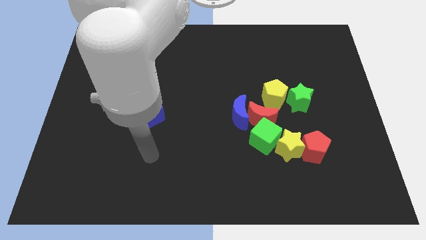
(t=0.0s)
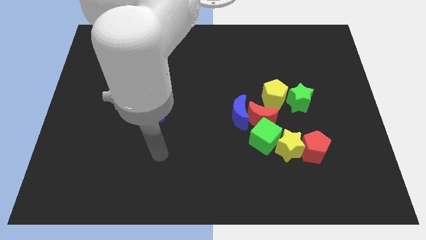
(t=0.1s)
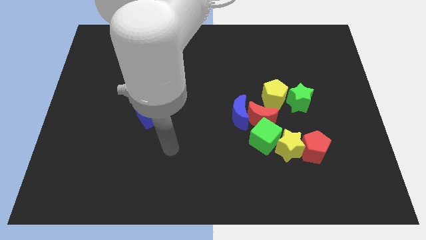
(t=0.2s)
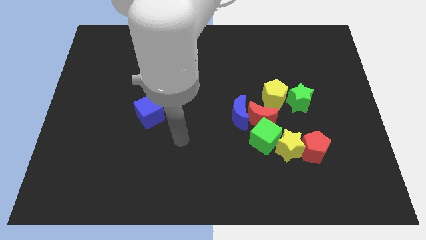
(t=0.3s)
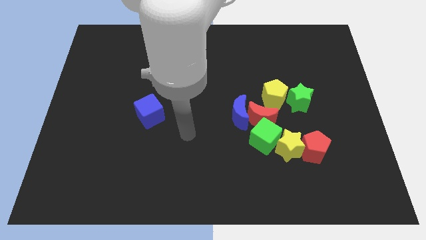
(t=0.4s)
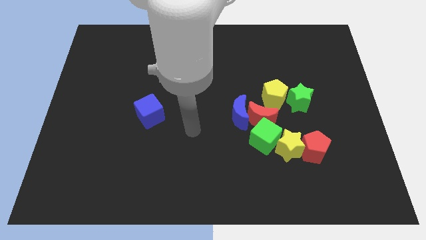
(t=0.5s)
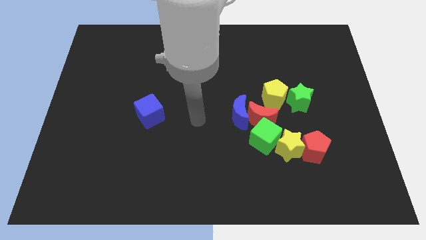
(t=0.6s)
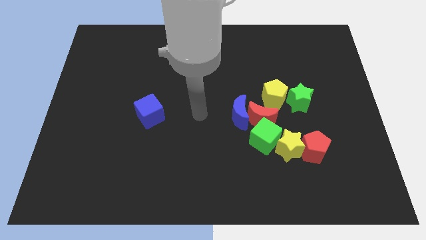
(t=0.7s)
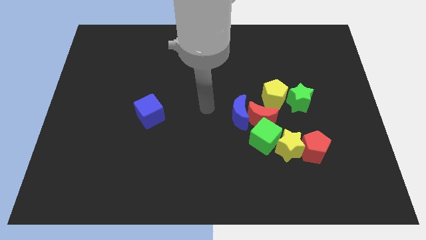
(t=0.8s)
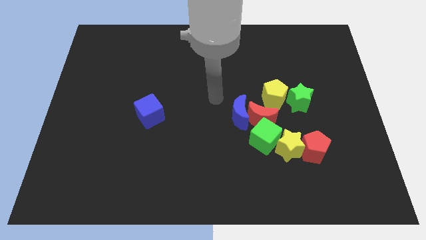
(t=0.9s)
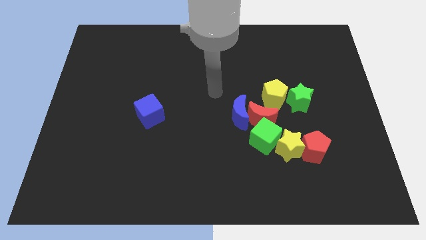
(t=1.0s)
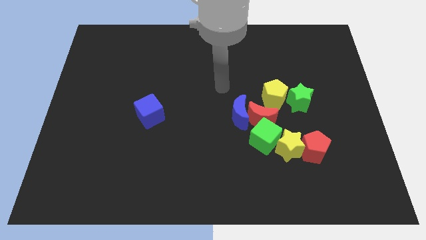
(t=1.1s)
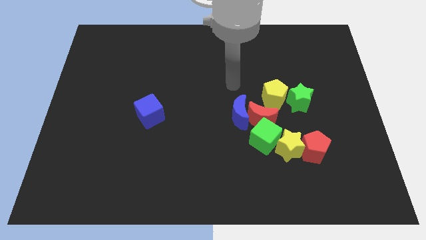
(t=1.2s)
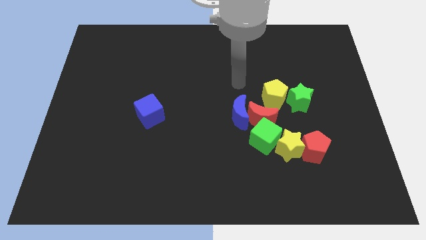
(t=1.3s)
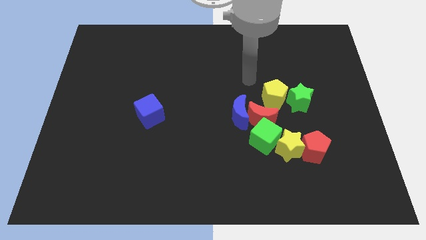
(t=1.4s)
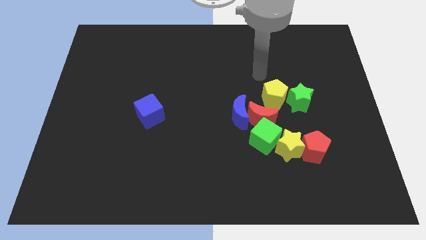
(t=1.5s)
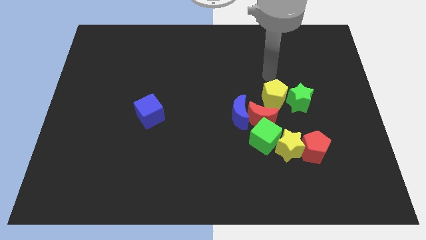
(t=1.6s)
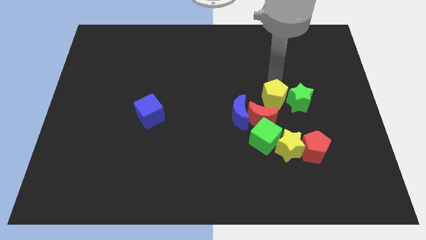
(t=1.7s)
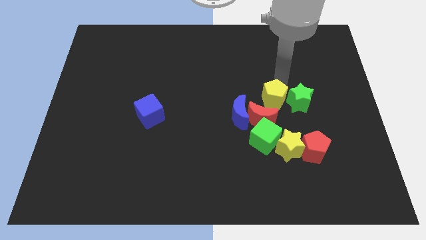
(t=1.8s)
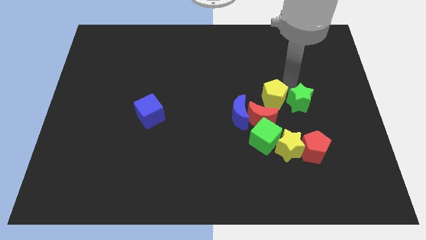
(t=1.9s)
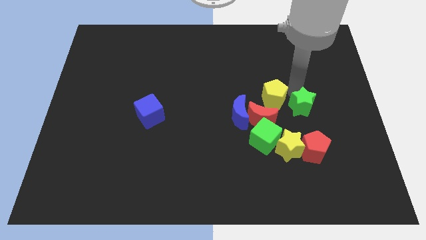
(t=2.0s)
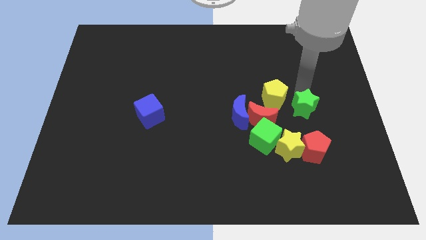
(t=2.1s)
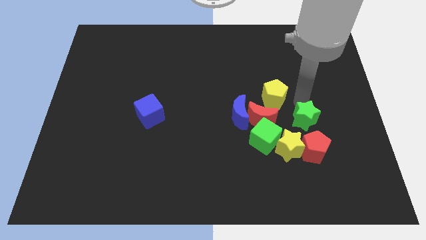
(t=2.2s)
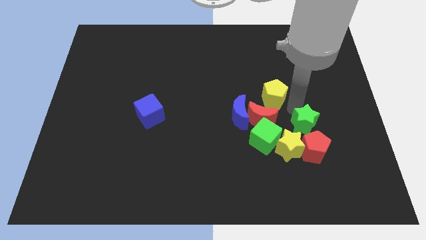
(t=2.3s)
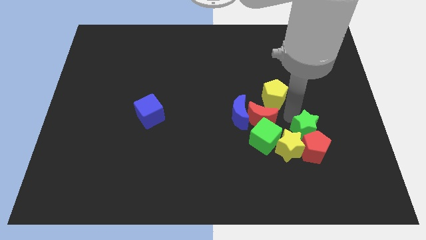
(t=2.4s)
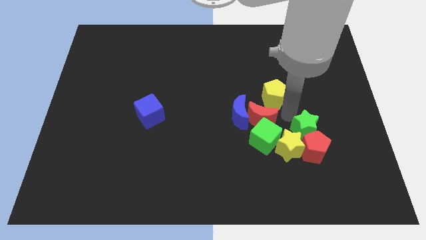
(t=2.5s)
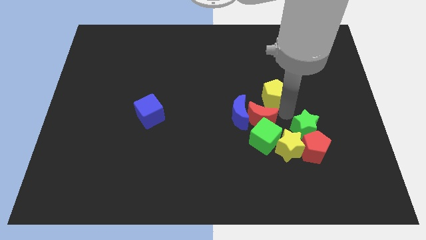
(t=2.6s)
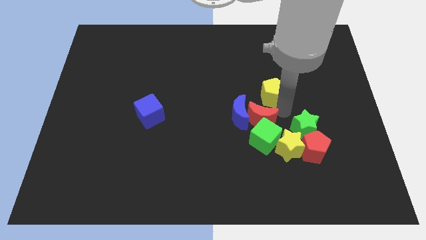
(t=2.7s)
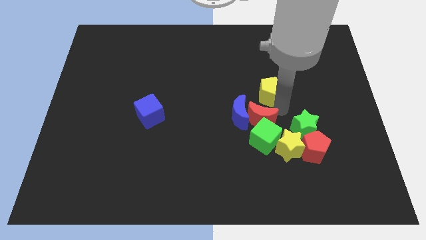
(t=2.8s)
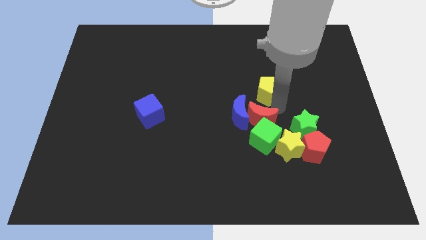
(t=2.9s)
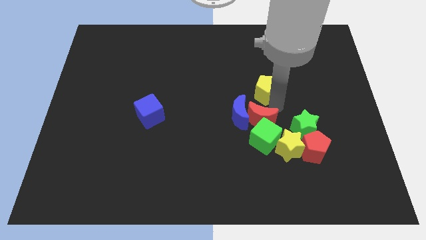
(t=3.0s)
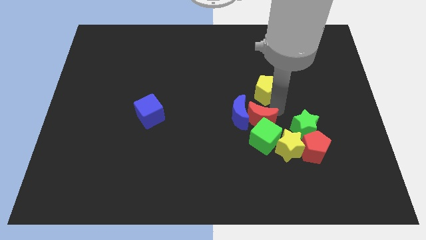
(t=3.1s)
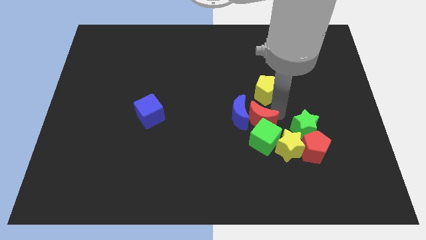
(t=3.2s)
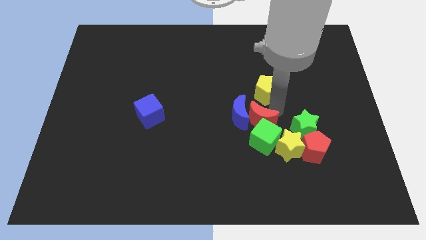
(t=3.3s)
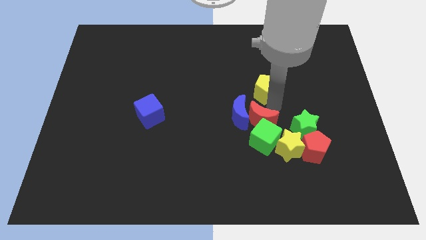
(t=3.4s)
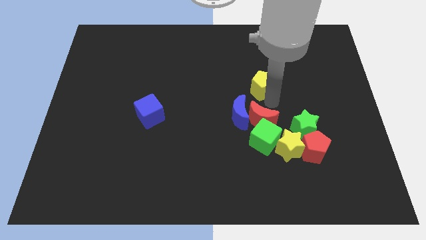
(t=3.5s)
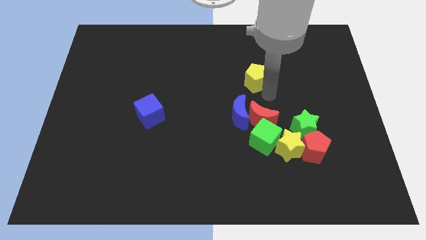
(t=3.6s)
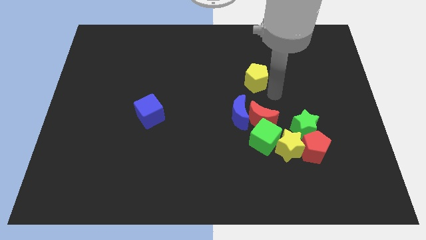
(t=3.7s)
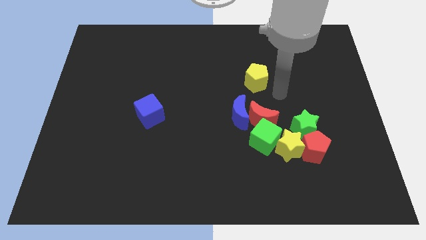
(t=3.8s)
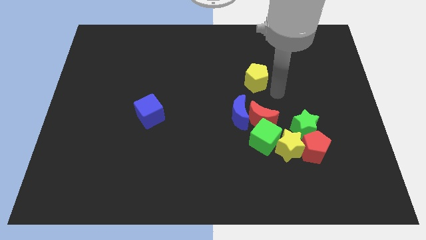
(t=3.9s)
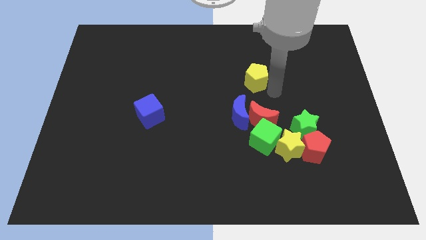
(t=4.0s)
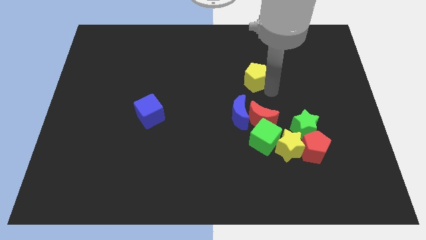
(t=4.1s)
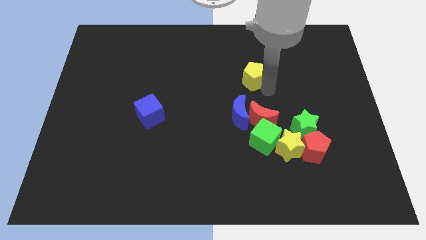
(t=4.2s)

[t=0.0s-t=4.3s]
move the yellow pentagon upwards and to the left a little bit

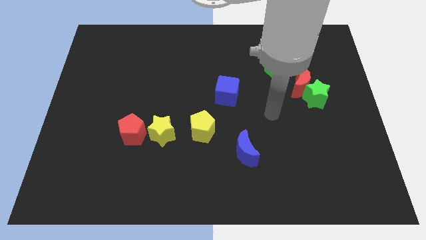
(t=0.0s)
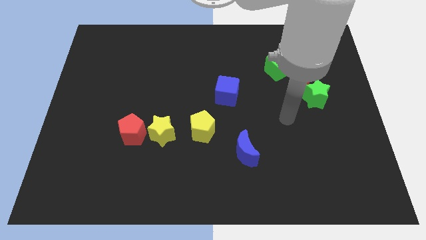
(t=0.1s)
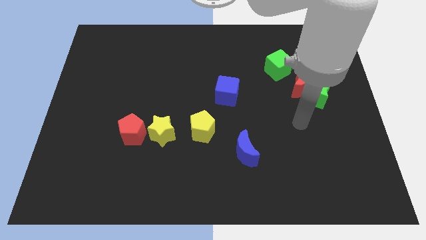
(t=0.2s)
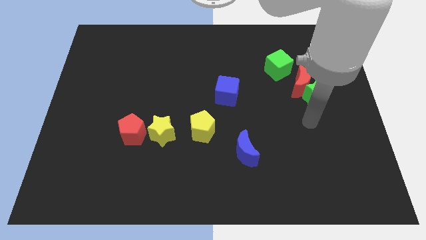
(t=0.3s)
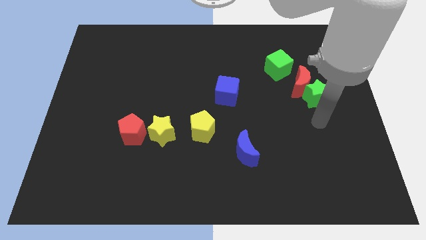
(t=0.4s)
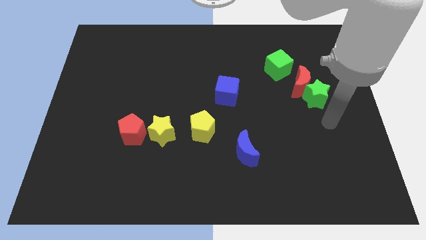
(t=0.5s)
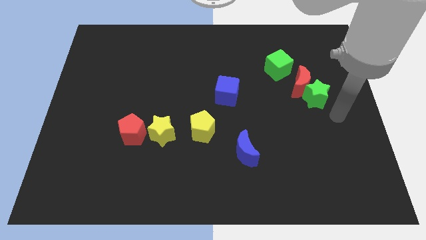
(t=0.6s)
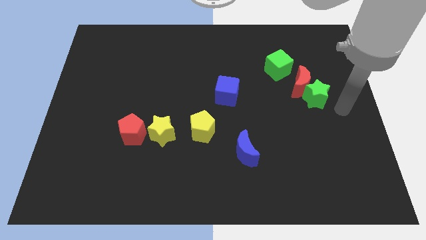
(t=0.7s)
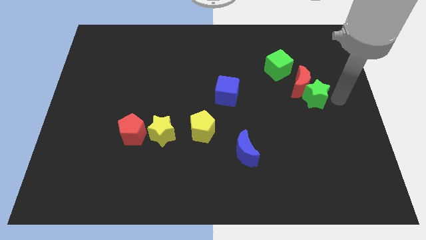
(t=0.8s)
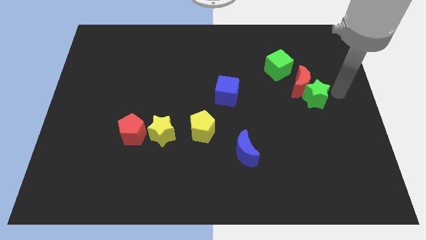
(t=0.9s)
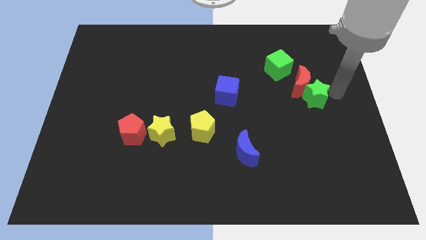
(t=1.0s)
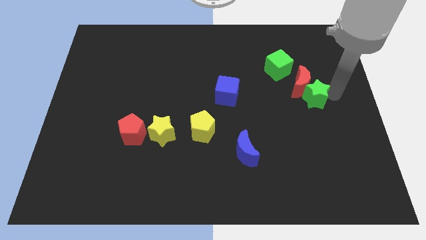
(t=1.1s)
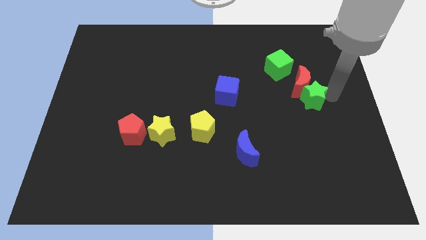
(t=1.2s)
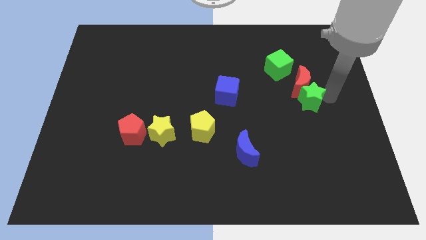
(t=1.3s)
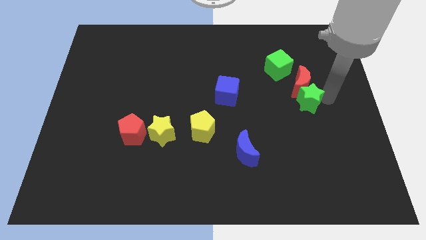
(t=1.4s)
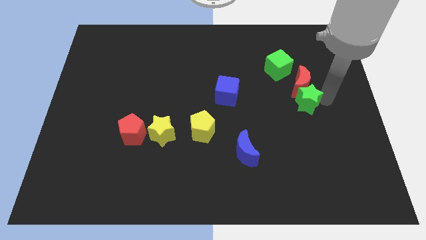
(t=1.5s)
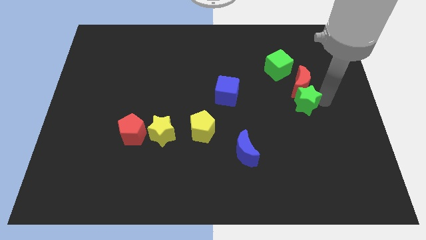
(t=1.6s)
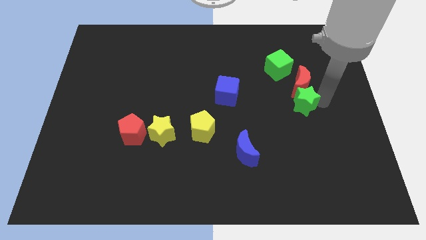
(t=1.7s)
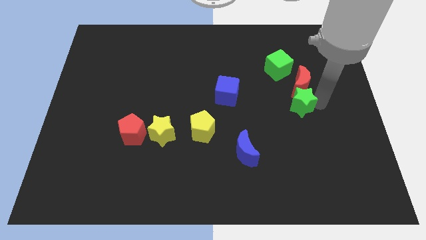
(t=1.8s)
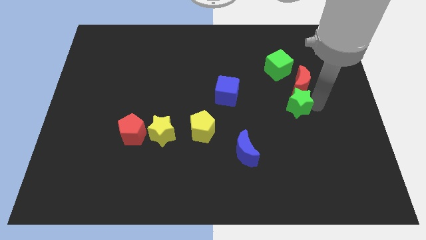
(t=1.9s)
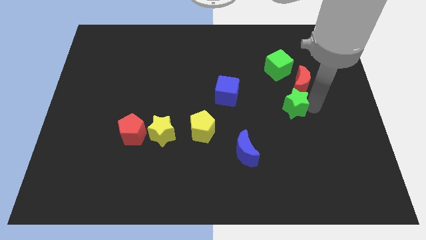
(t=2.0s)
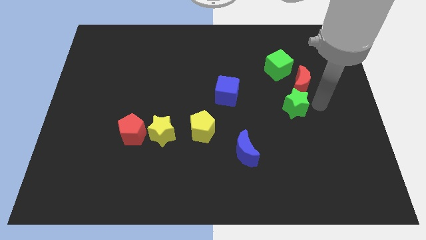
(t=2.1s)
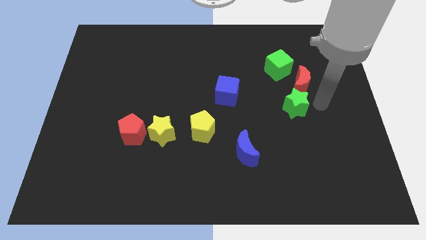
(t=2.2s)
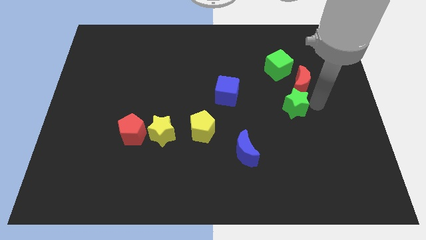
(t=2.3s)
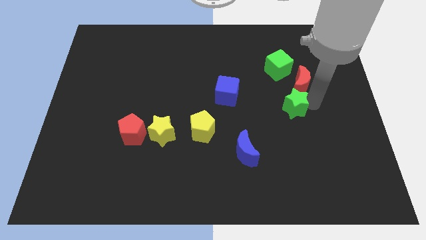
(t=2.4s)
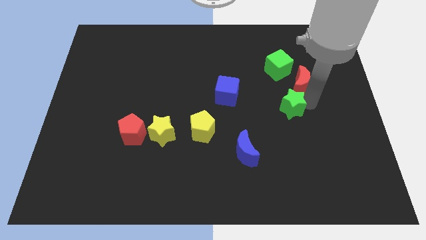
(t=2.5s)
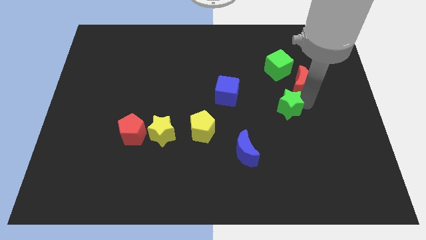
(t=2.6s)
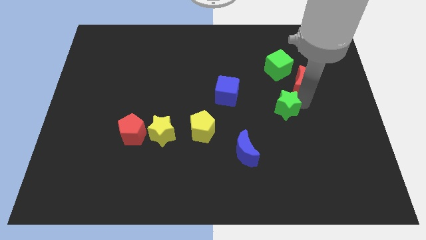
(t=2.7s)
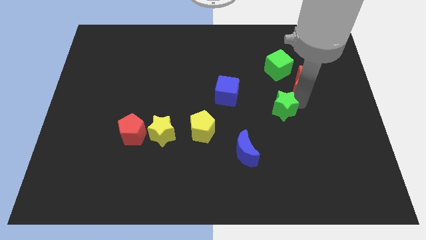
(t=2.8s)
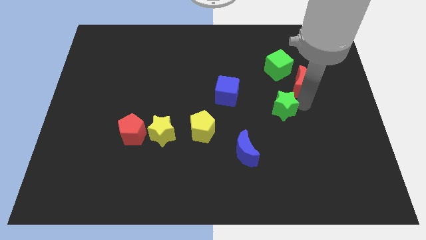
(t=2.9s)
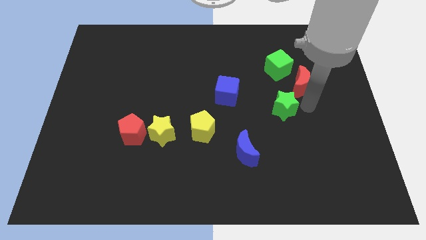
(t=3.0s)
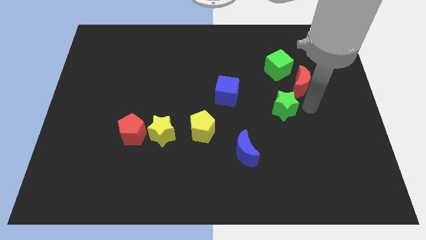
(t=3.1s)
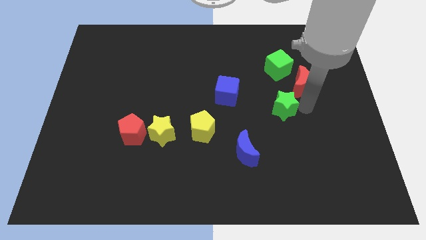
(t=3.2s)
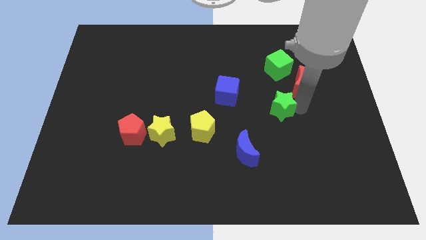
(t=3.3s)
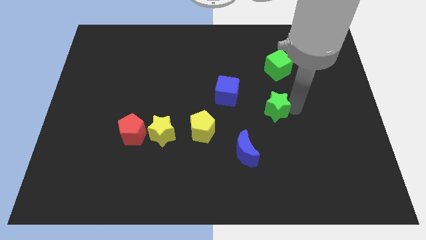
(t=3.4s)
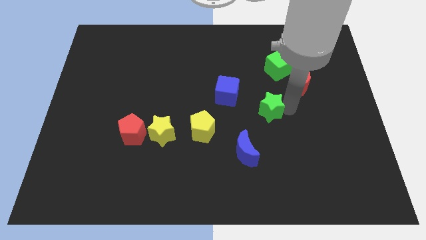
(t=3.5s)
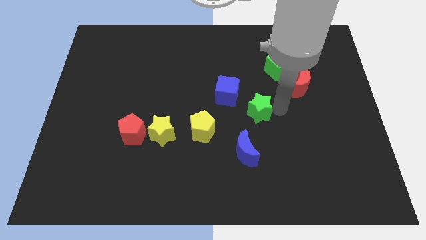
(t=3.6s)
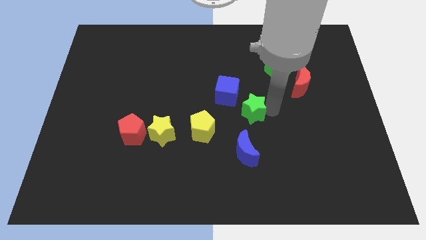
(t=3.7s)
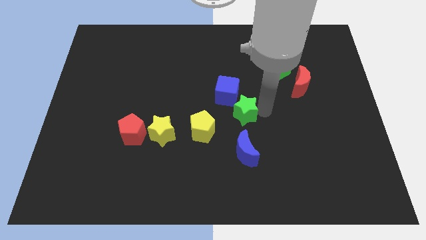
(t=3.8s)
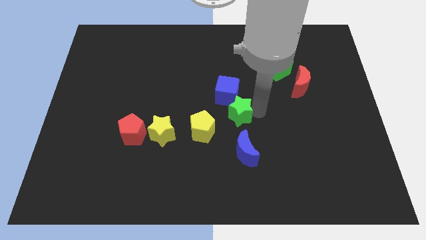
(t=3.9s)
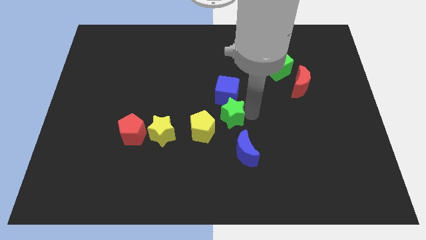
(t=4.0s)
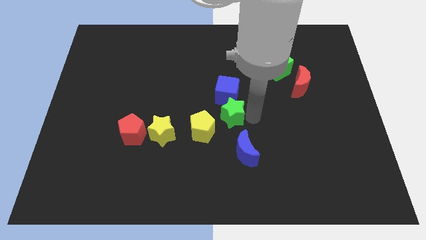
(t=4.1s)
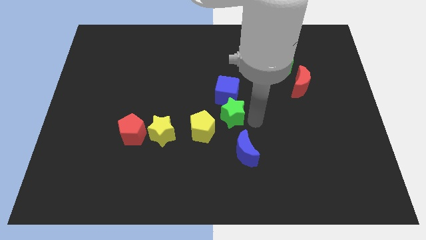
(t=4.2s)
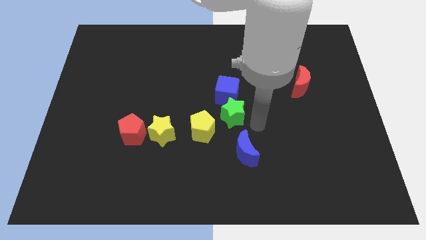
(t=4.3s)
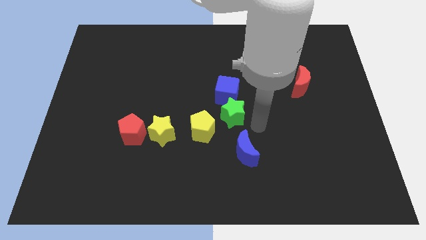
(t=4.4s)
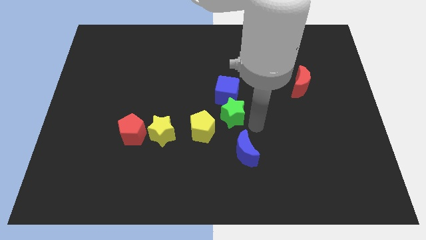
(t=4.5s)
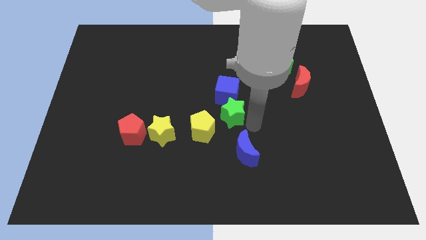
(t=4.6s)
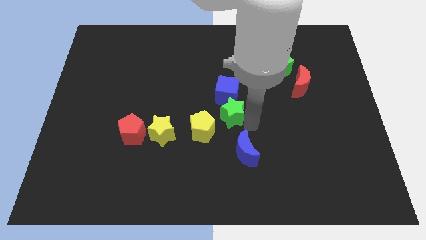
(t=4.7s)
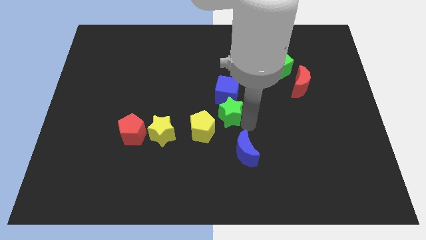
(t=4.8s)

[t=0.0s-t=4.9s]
push the green star to the left
